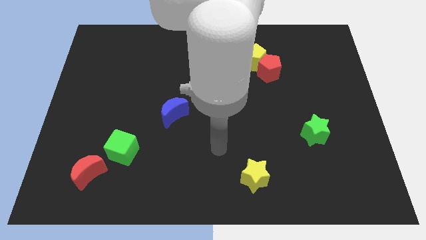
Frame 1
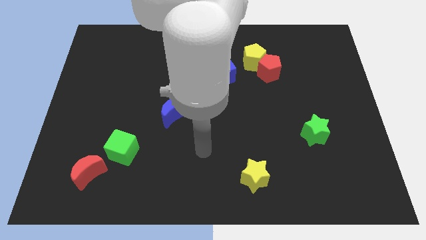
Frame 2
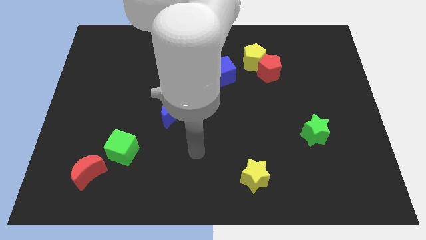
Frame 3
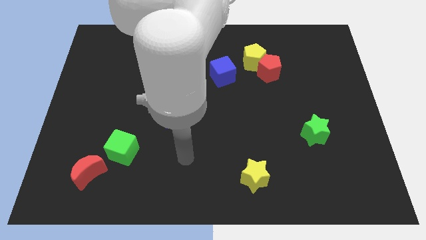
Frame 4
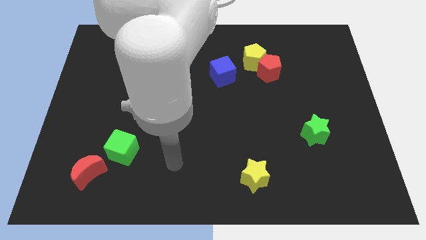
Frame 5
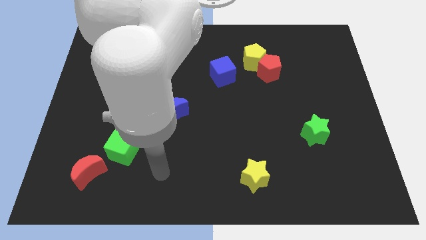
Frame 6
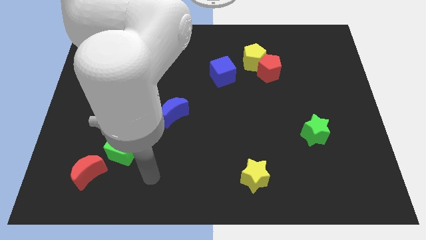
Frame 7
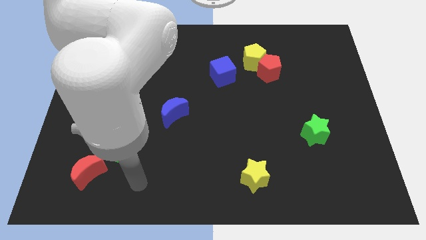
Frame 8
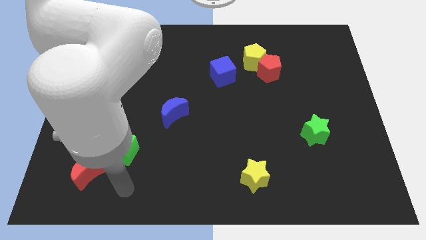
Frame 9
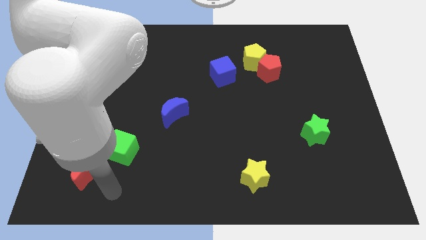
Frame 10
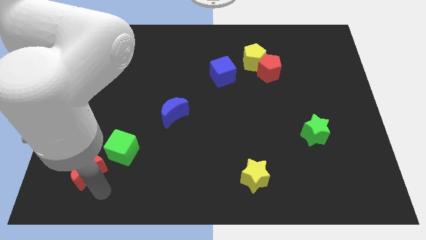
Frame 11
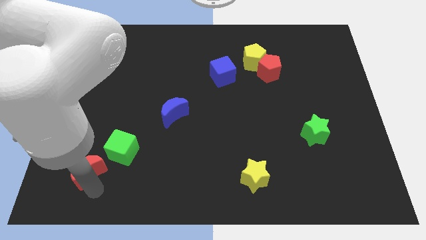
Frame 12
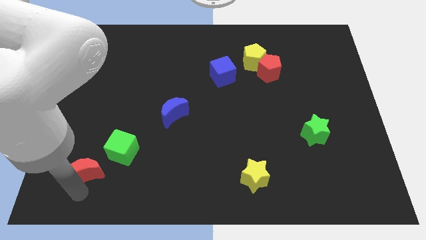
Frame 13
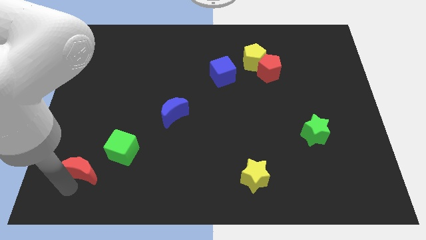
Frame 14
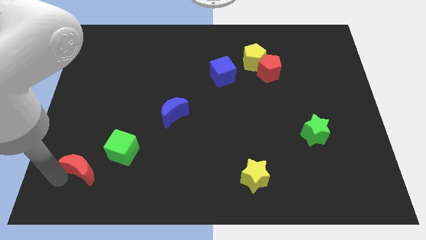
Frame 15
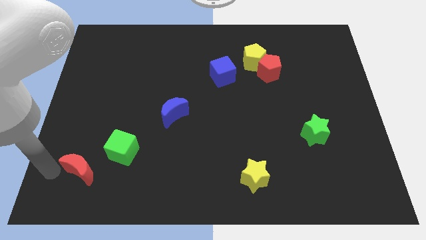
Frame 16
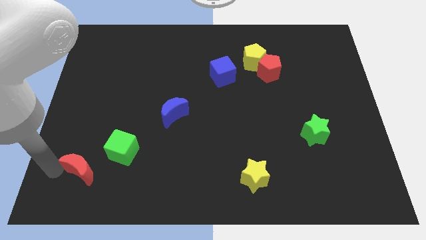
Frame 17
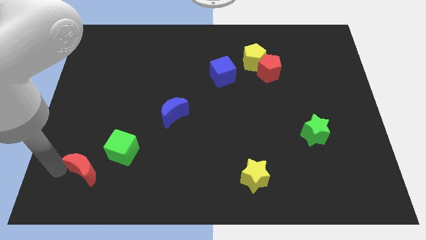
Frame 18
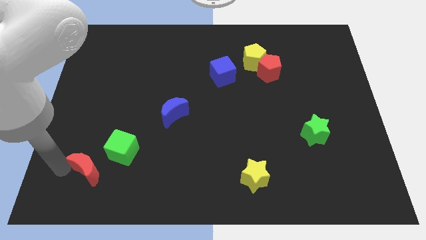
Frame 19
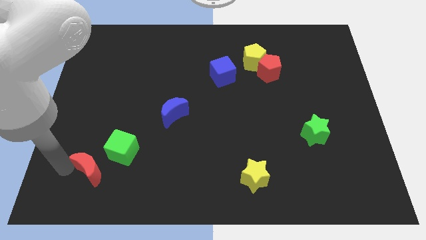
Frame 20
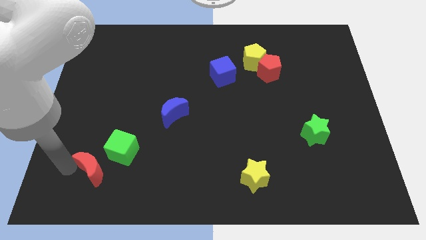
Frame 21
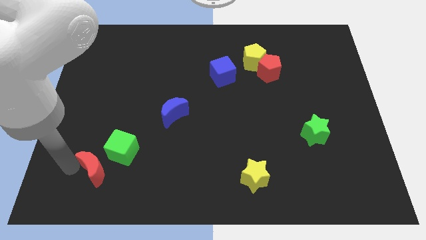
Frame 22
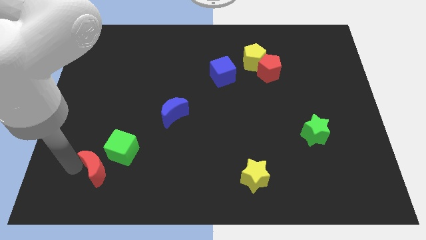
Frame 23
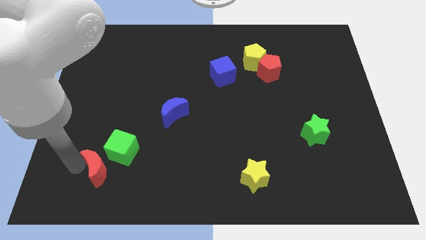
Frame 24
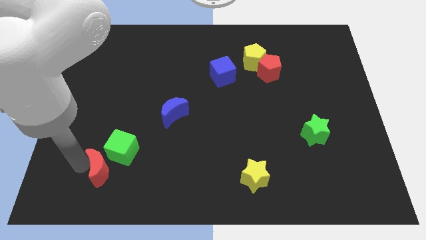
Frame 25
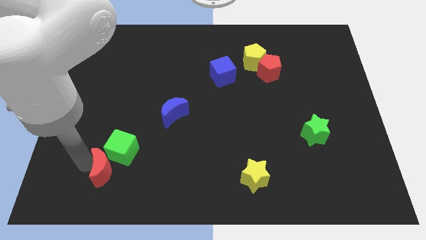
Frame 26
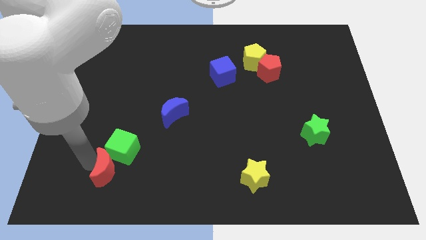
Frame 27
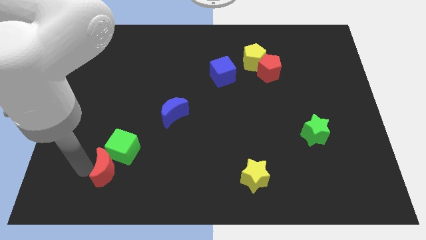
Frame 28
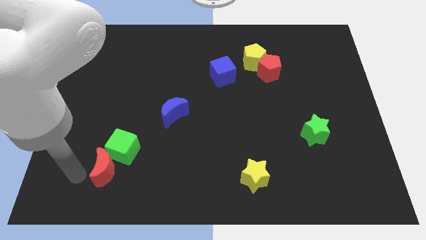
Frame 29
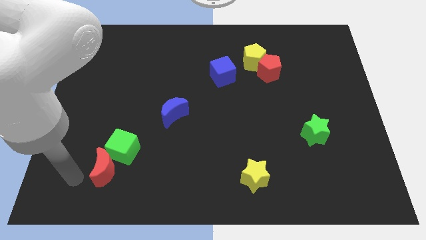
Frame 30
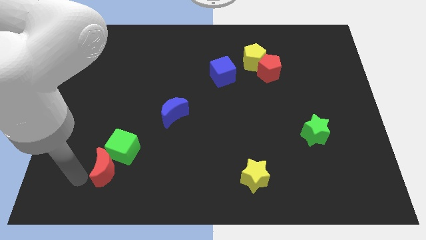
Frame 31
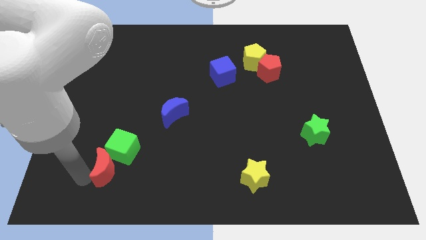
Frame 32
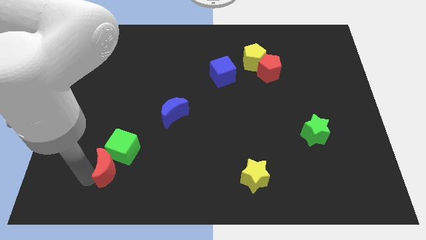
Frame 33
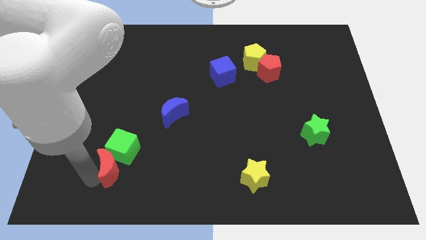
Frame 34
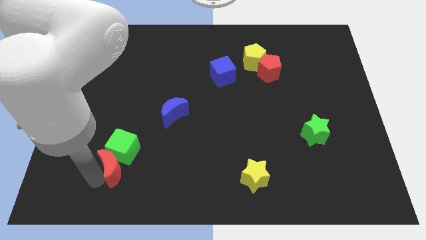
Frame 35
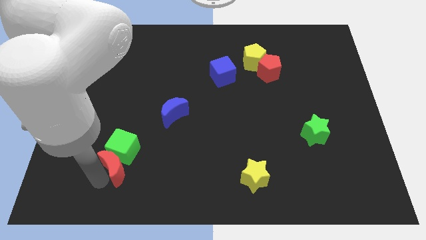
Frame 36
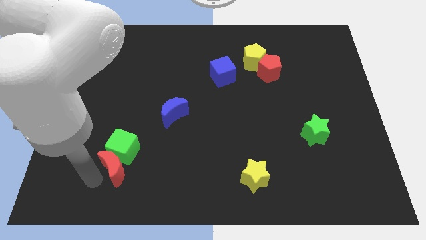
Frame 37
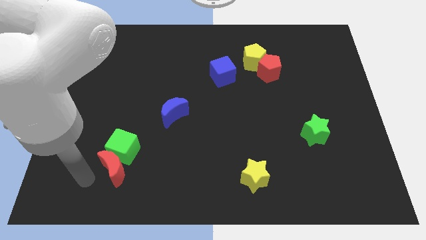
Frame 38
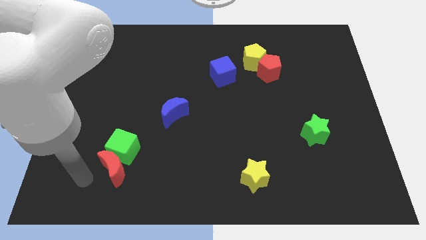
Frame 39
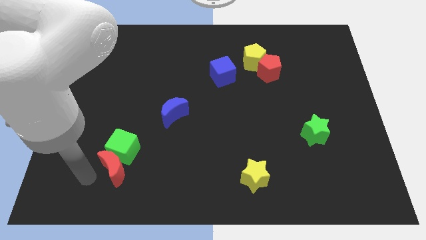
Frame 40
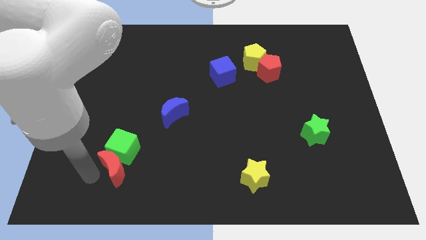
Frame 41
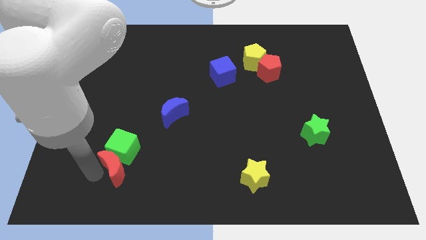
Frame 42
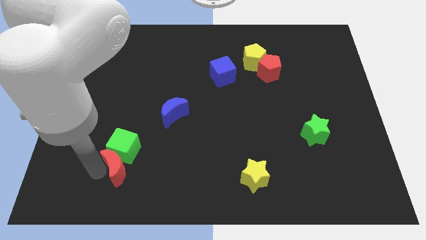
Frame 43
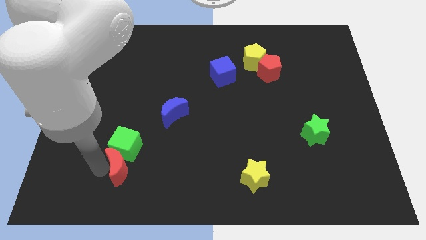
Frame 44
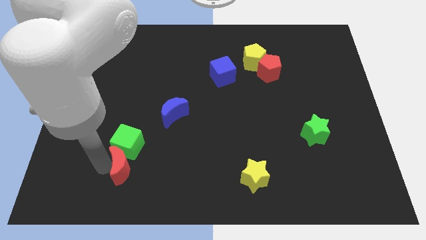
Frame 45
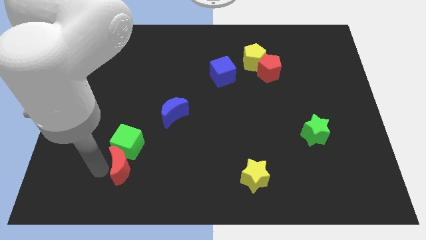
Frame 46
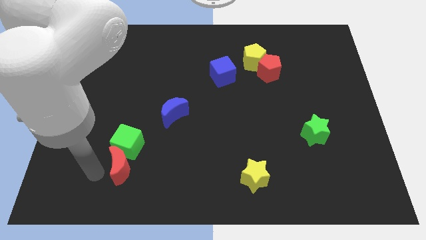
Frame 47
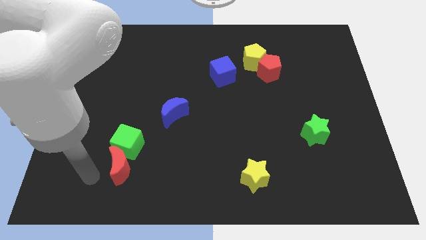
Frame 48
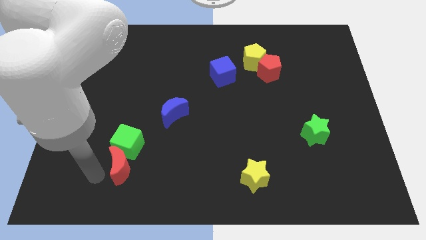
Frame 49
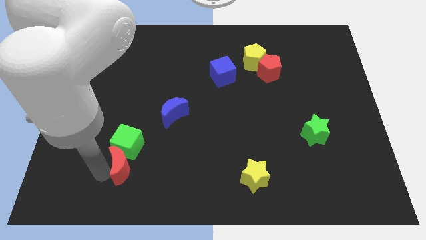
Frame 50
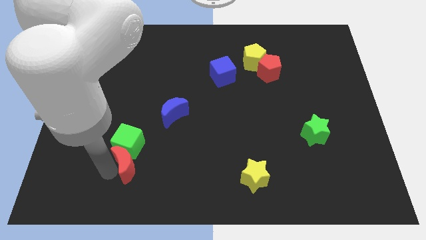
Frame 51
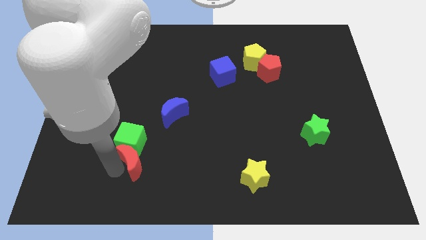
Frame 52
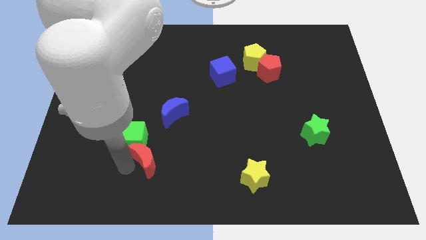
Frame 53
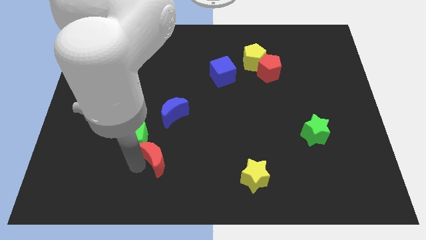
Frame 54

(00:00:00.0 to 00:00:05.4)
put the red moon to the right of the green cube

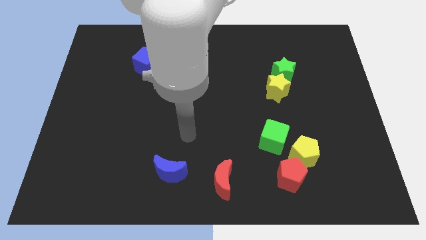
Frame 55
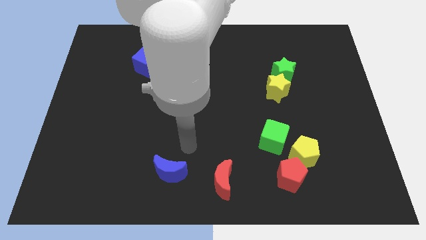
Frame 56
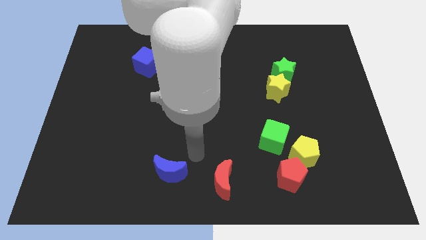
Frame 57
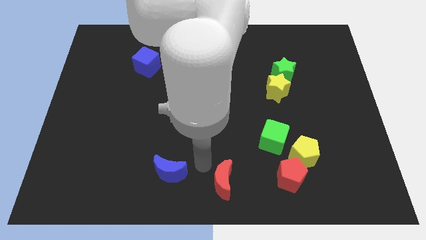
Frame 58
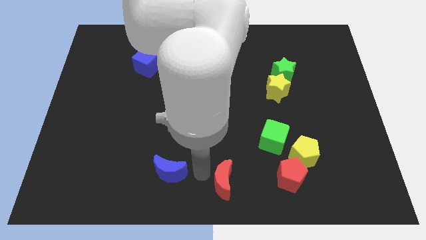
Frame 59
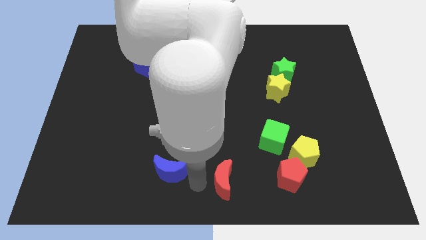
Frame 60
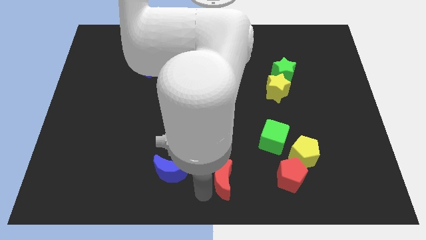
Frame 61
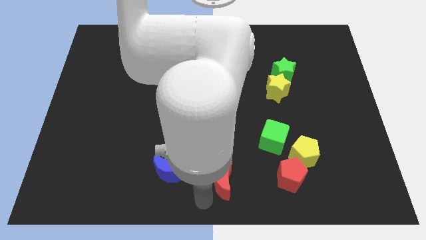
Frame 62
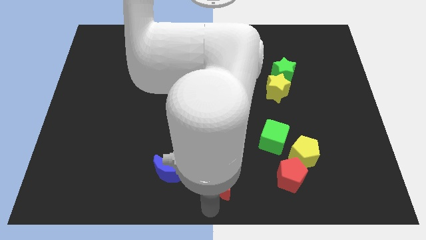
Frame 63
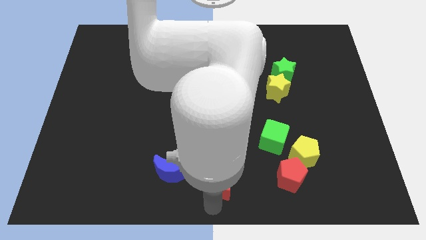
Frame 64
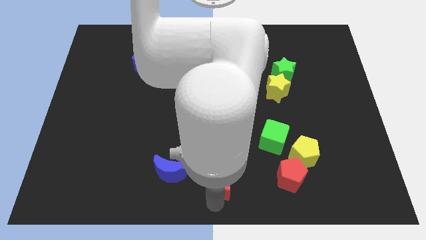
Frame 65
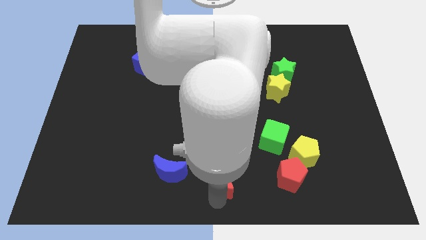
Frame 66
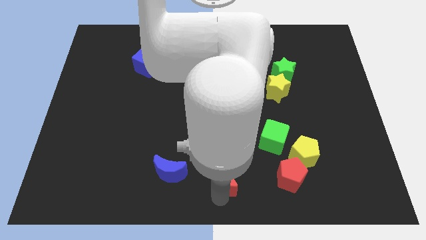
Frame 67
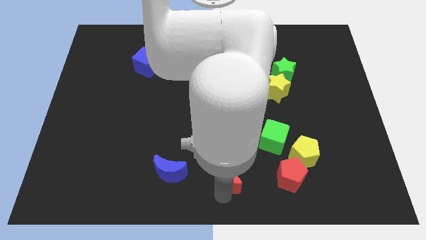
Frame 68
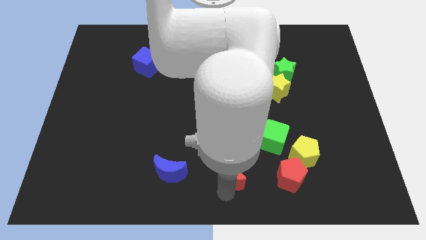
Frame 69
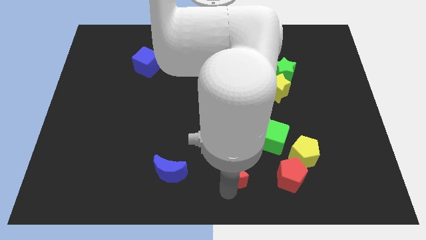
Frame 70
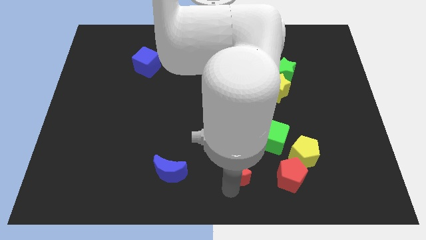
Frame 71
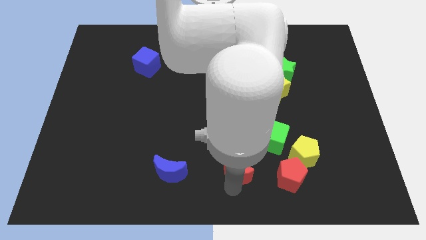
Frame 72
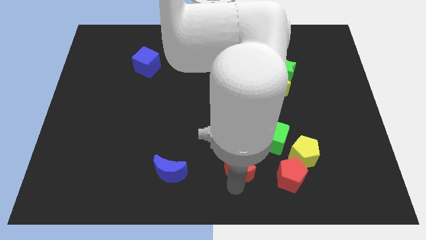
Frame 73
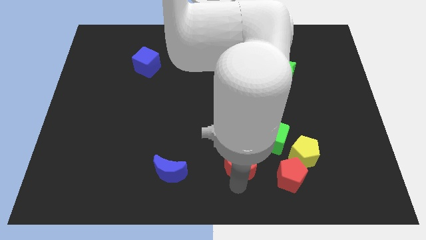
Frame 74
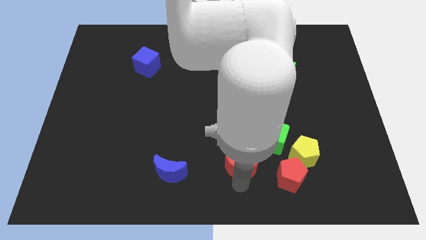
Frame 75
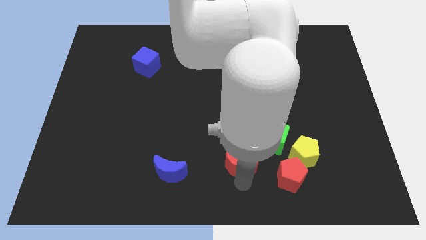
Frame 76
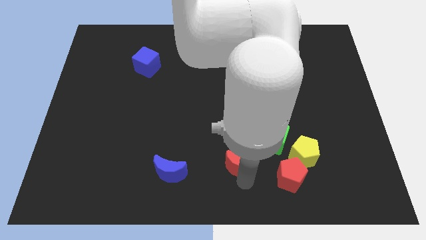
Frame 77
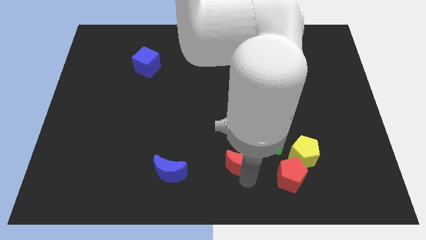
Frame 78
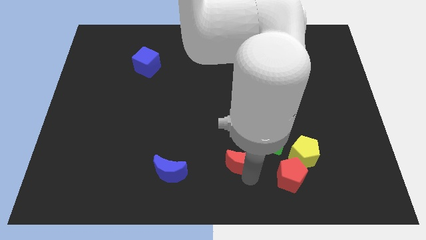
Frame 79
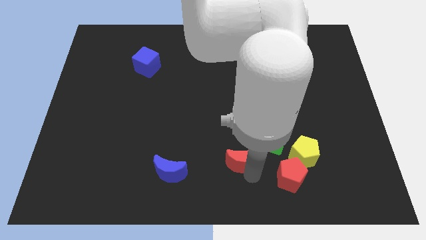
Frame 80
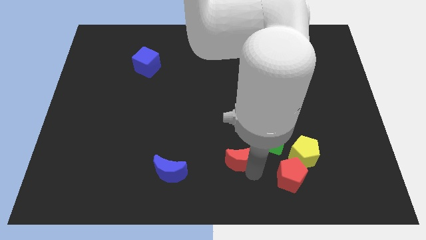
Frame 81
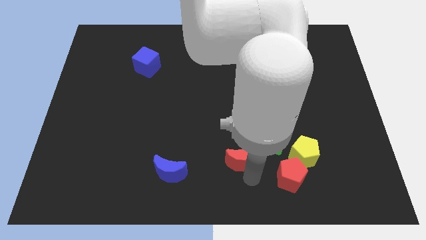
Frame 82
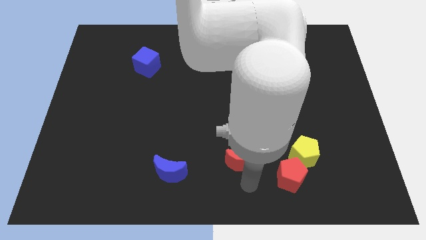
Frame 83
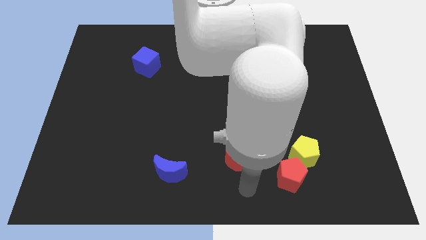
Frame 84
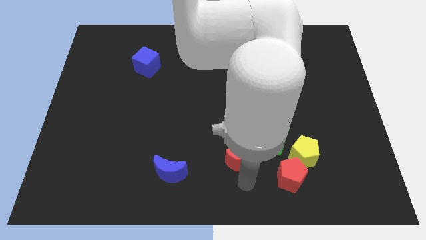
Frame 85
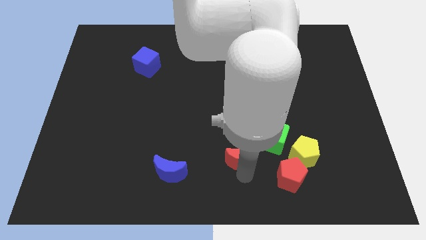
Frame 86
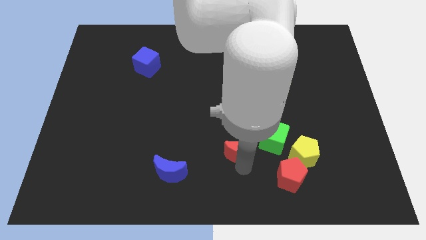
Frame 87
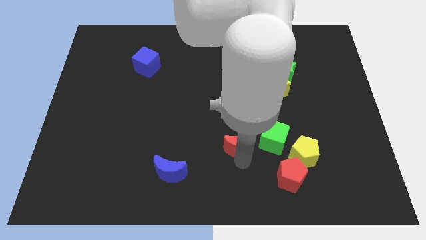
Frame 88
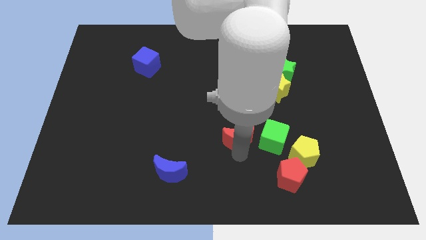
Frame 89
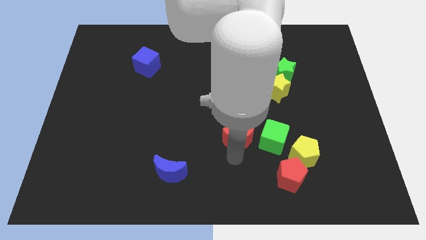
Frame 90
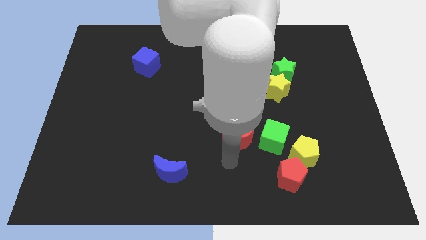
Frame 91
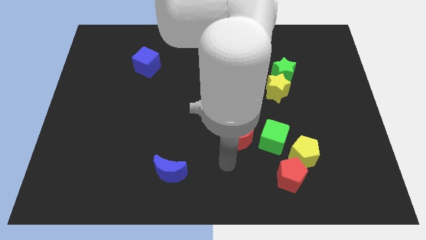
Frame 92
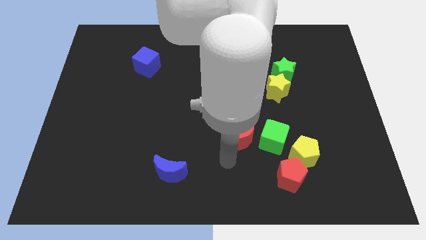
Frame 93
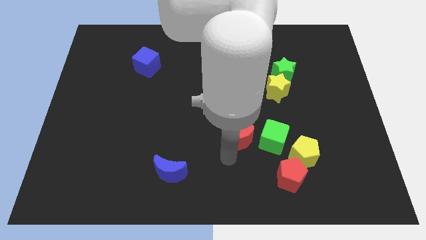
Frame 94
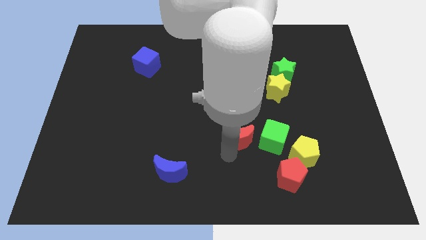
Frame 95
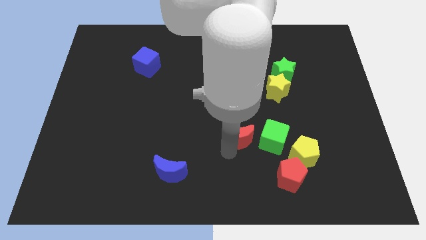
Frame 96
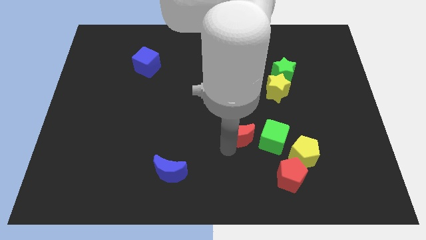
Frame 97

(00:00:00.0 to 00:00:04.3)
slide the red moon to the top left of the green cube
